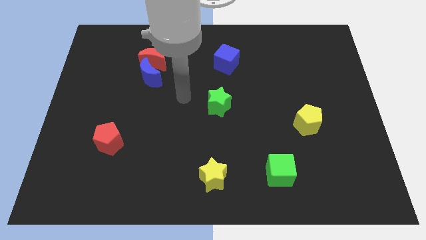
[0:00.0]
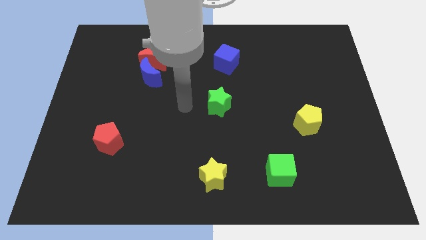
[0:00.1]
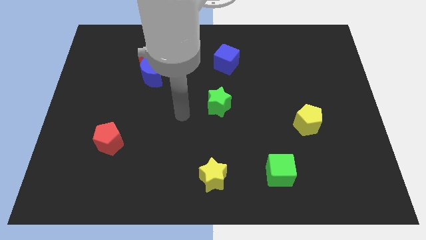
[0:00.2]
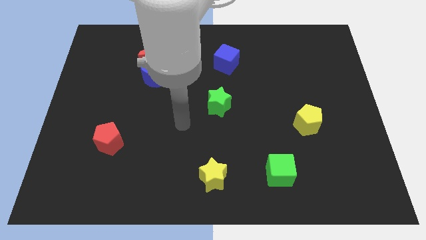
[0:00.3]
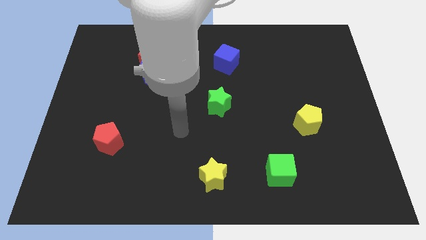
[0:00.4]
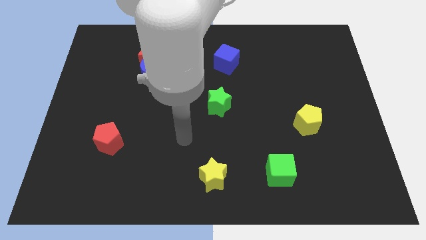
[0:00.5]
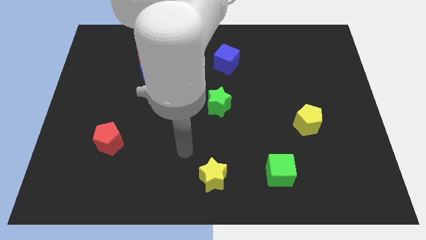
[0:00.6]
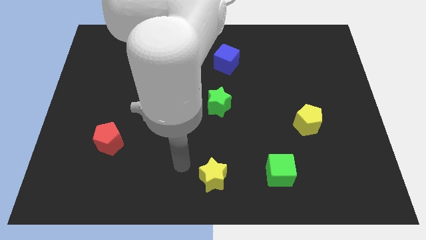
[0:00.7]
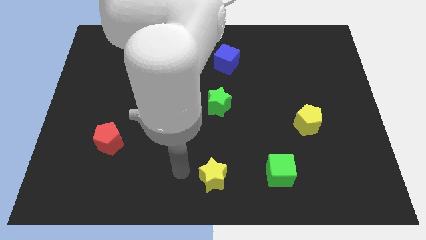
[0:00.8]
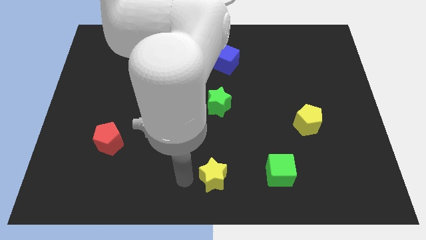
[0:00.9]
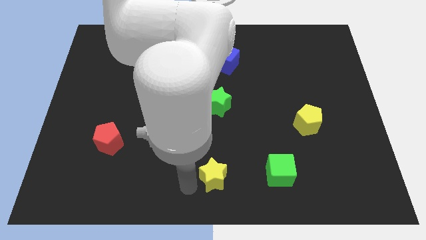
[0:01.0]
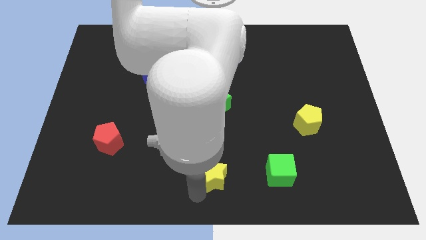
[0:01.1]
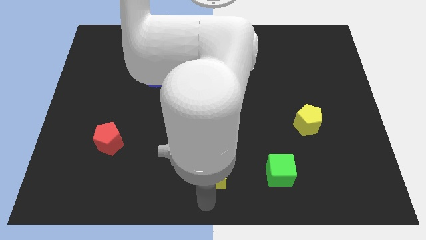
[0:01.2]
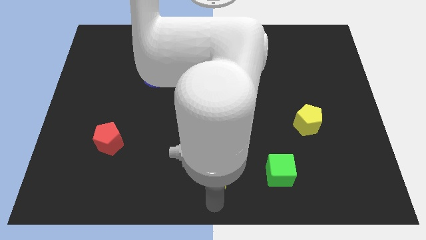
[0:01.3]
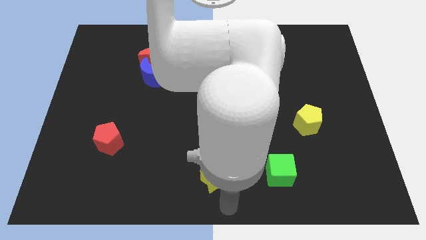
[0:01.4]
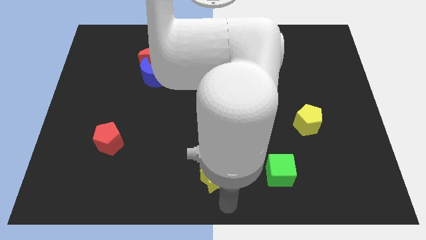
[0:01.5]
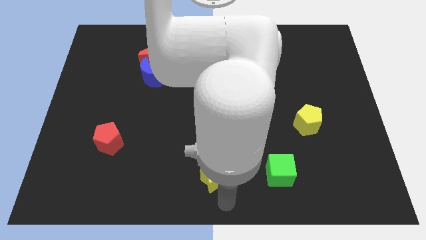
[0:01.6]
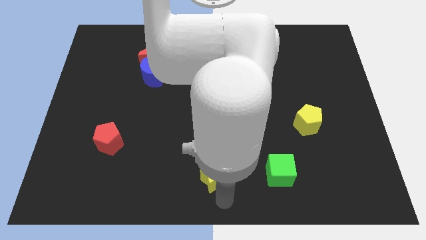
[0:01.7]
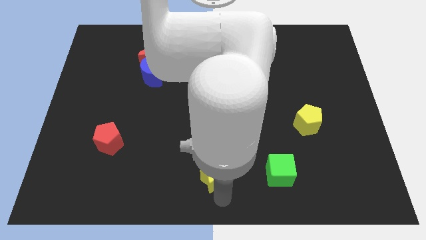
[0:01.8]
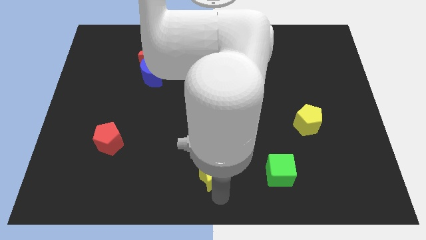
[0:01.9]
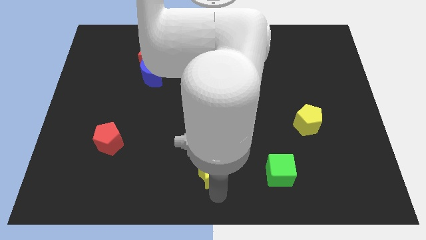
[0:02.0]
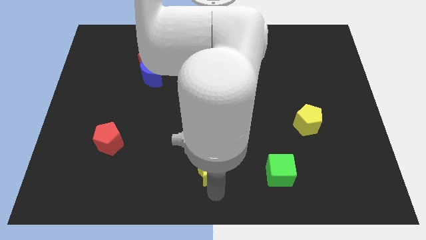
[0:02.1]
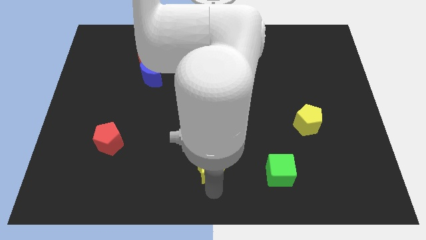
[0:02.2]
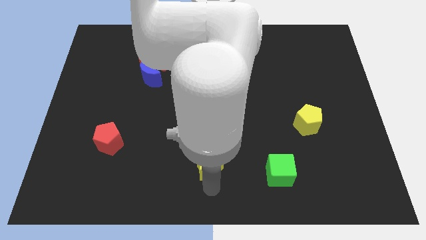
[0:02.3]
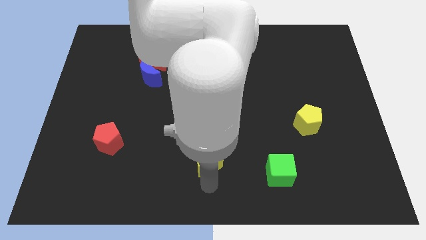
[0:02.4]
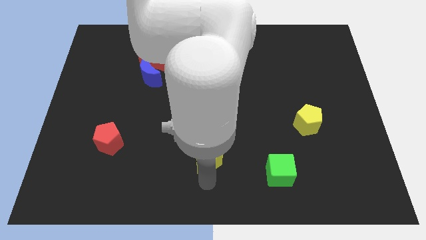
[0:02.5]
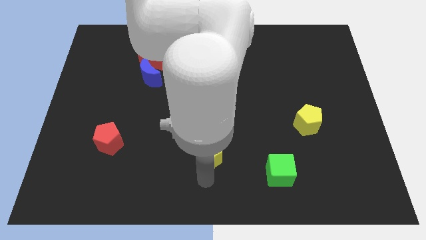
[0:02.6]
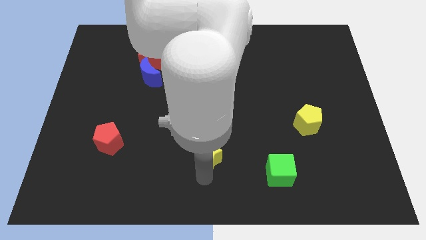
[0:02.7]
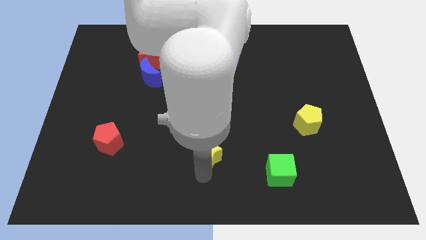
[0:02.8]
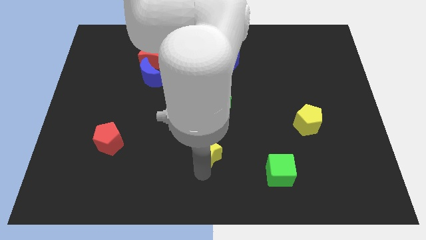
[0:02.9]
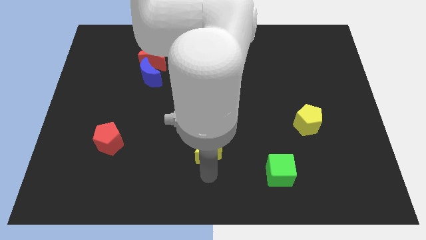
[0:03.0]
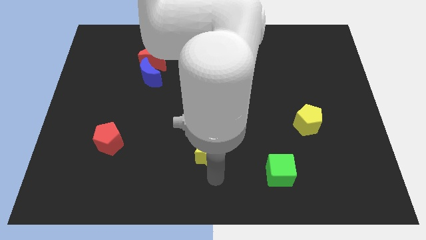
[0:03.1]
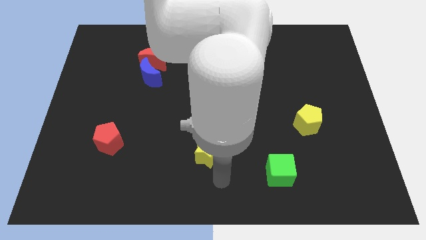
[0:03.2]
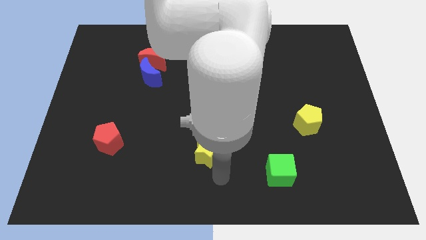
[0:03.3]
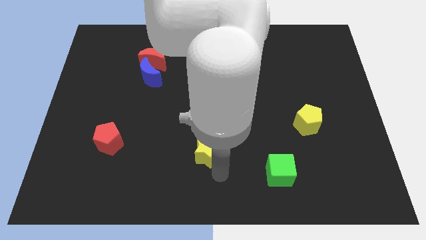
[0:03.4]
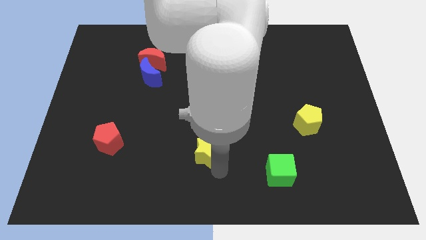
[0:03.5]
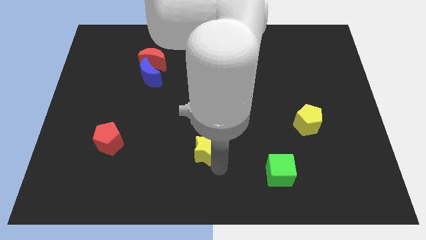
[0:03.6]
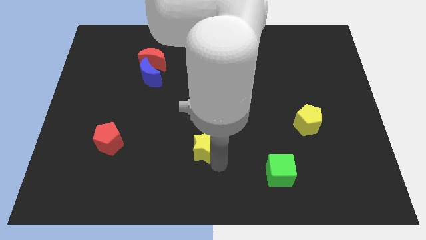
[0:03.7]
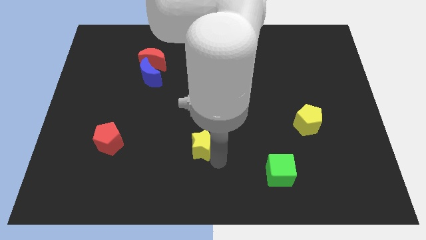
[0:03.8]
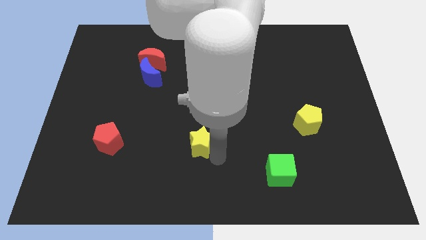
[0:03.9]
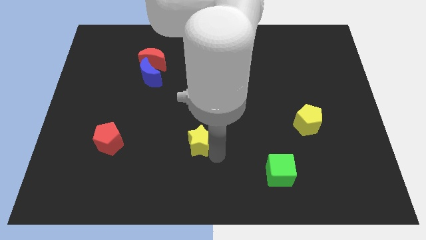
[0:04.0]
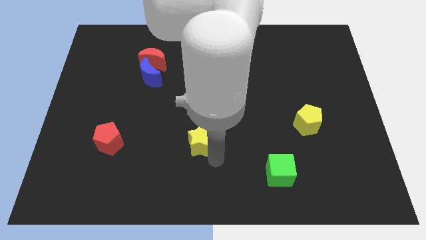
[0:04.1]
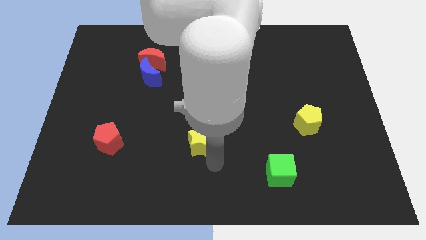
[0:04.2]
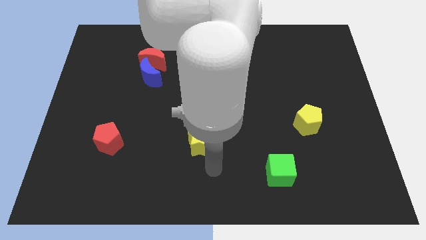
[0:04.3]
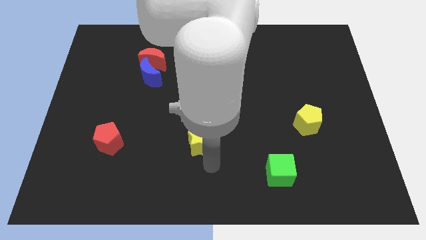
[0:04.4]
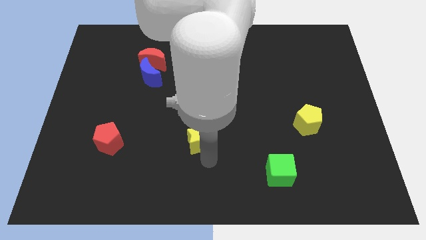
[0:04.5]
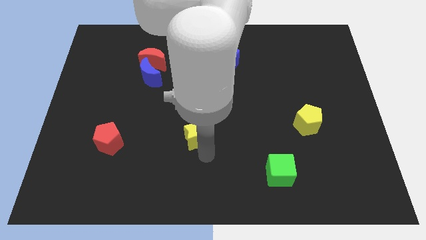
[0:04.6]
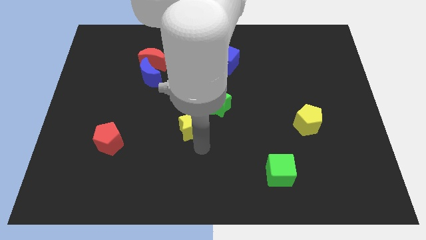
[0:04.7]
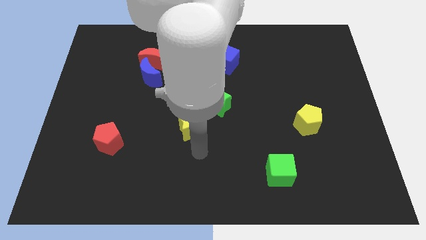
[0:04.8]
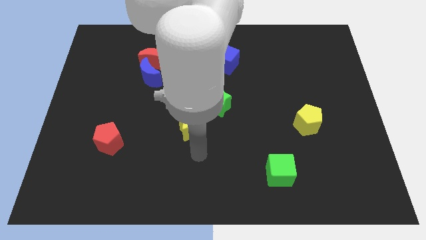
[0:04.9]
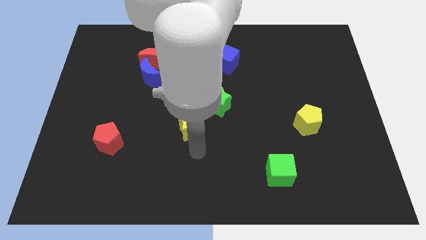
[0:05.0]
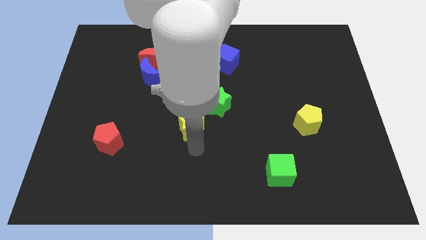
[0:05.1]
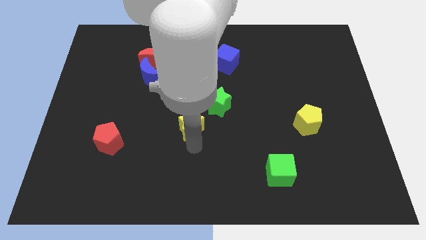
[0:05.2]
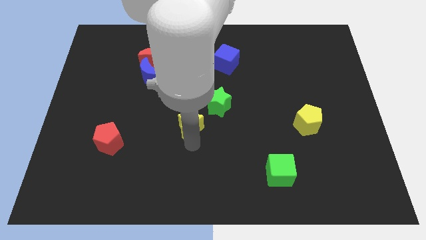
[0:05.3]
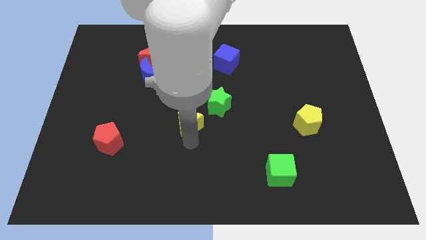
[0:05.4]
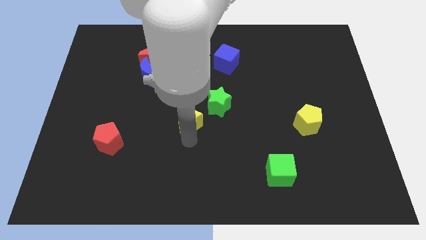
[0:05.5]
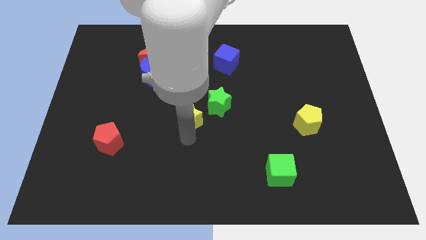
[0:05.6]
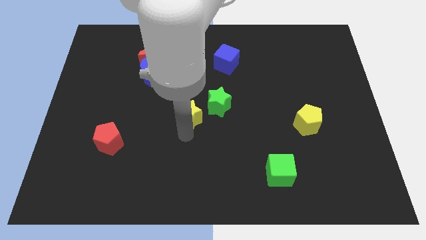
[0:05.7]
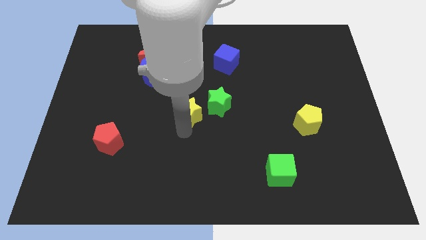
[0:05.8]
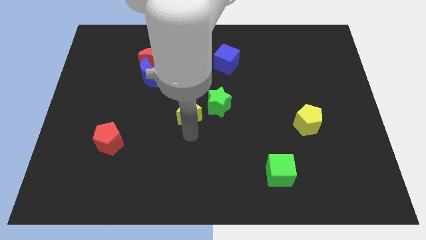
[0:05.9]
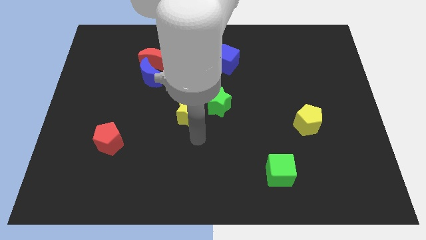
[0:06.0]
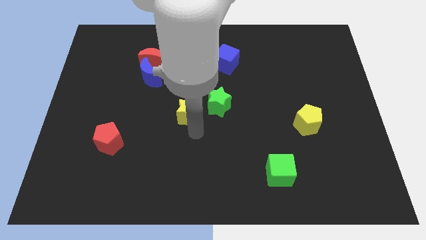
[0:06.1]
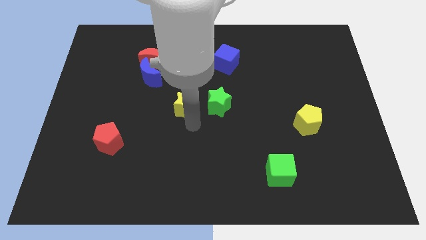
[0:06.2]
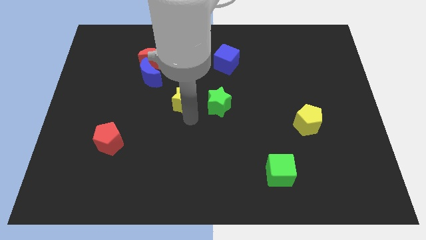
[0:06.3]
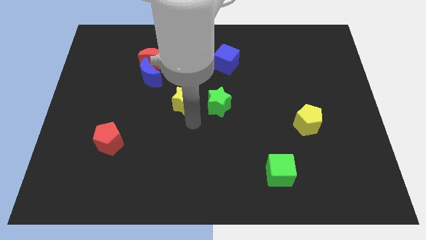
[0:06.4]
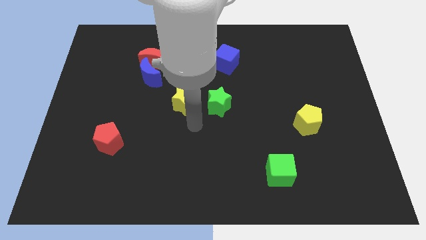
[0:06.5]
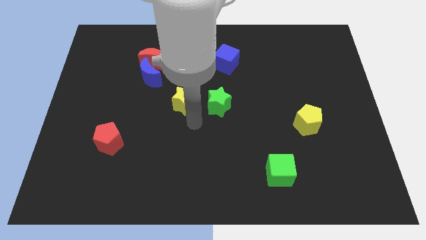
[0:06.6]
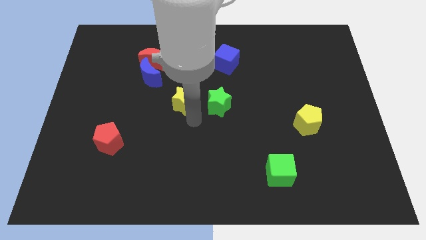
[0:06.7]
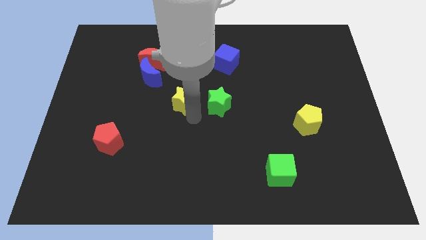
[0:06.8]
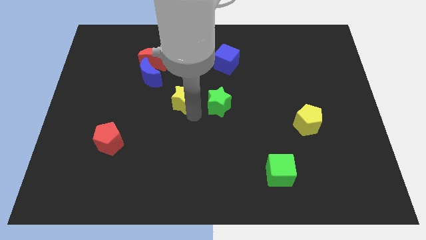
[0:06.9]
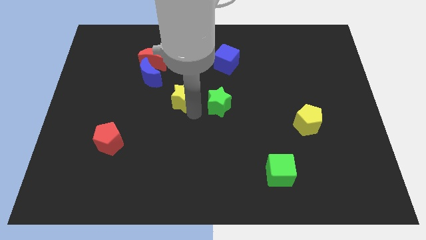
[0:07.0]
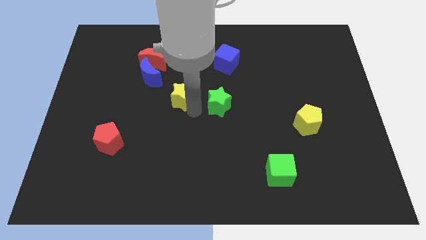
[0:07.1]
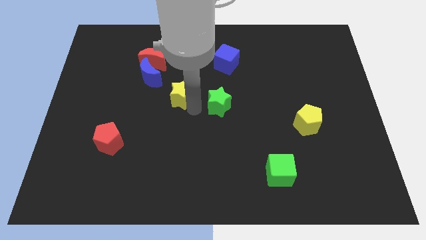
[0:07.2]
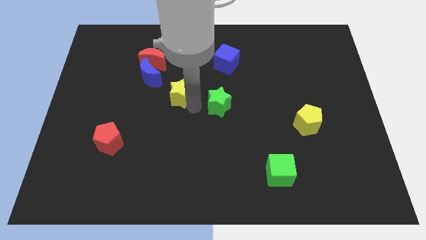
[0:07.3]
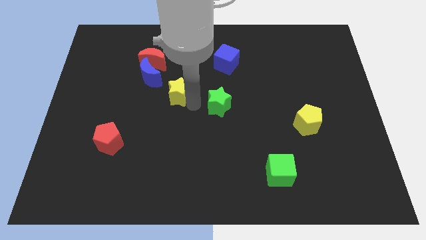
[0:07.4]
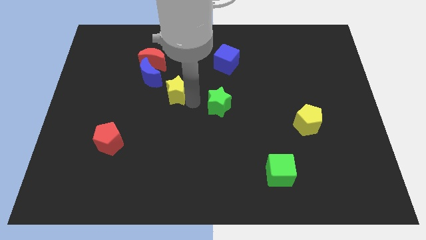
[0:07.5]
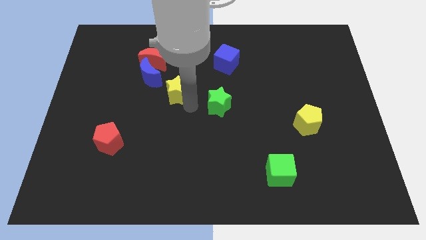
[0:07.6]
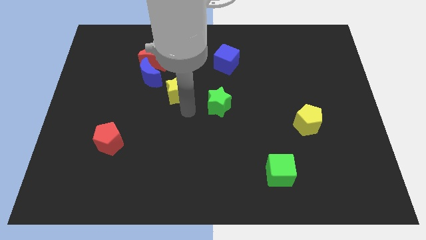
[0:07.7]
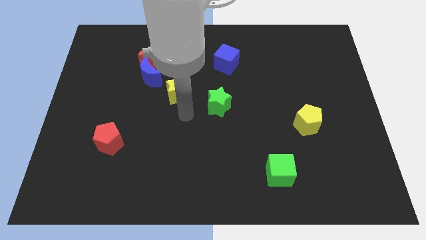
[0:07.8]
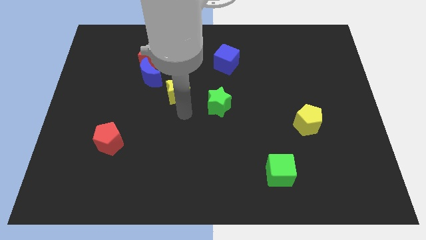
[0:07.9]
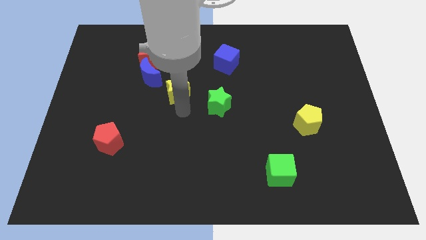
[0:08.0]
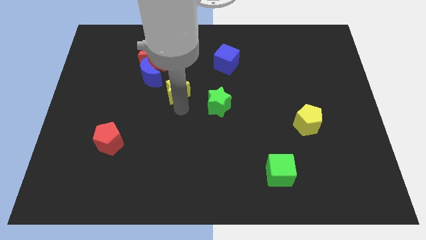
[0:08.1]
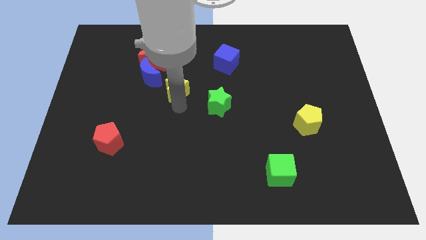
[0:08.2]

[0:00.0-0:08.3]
slide the yellow star to the bottom right side of the red moon

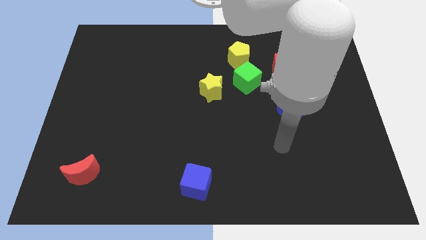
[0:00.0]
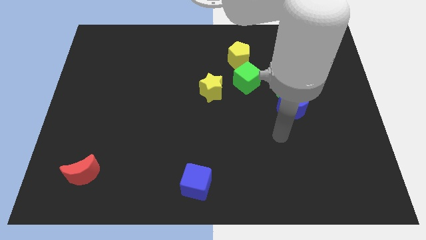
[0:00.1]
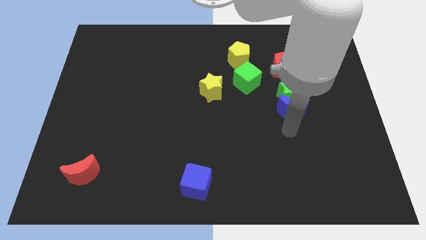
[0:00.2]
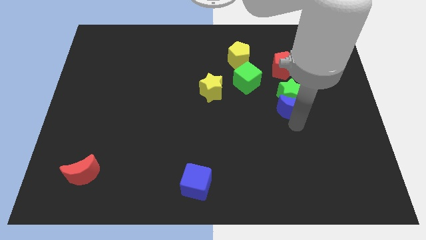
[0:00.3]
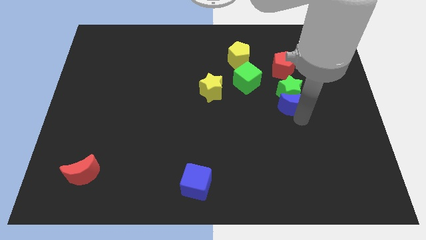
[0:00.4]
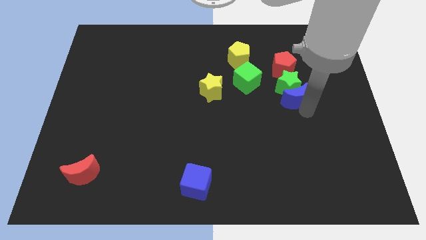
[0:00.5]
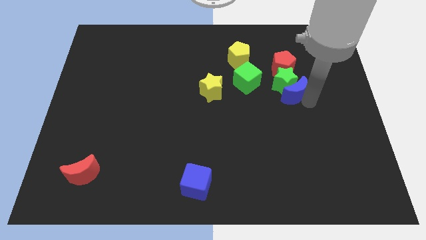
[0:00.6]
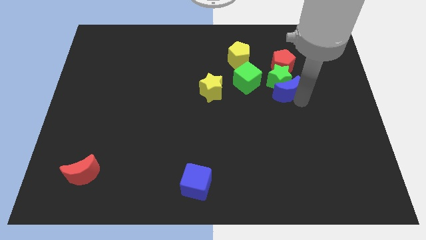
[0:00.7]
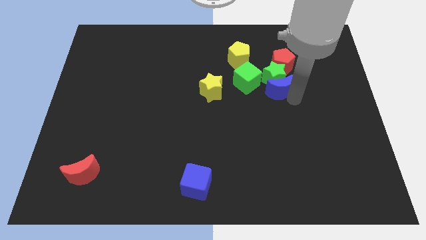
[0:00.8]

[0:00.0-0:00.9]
push the green star to the top right of the green cube
